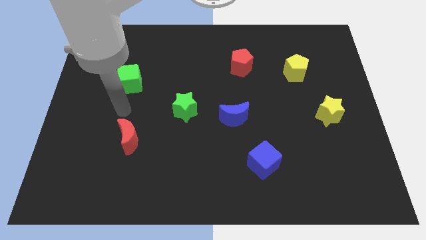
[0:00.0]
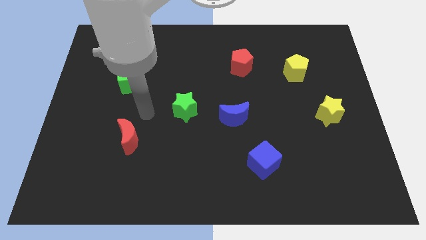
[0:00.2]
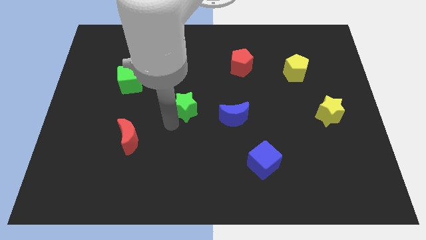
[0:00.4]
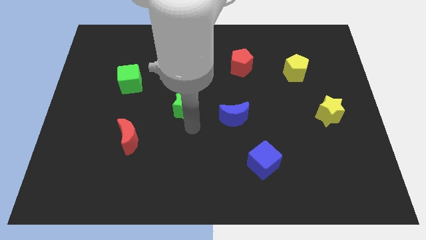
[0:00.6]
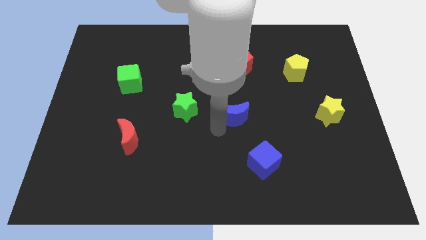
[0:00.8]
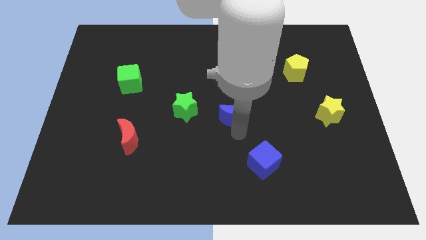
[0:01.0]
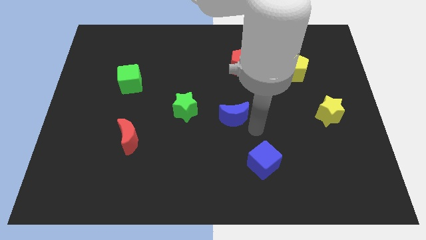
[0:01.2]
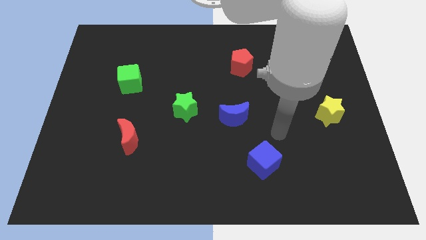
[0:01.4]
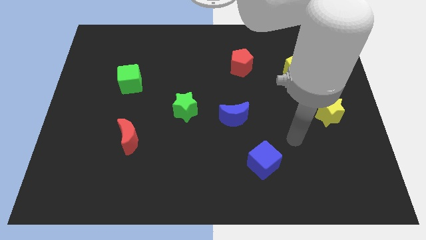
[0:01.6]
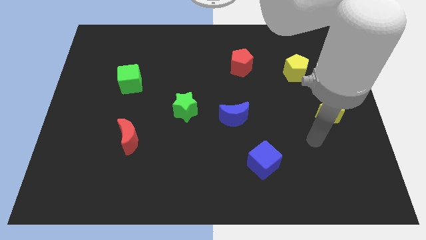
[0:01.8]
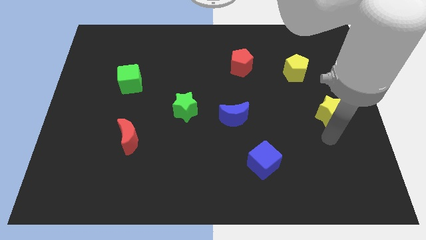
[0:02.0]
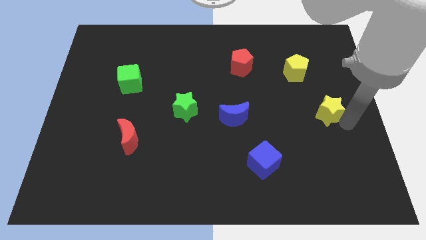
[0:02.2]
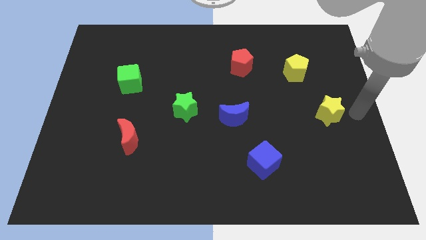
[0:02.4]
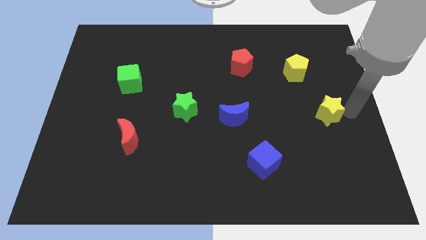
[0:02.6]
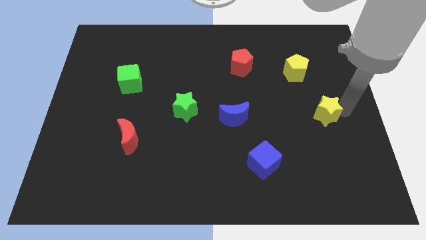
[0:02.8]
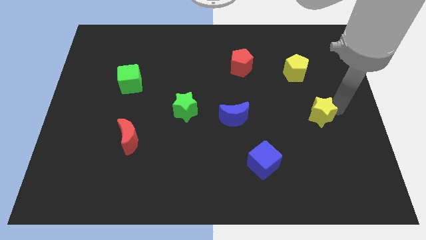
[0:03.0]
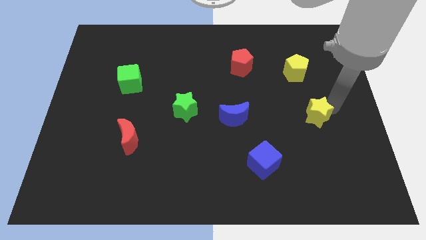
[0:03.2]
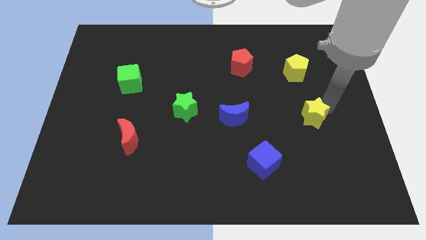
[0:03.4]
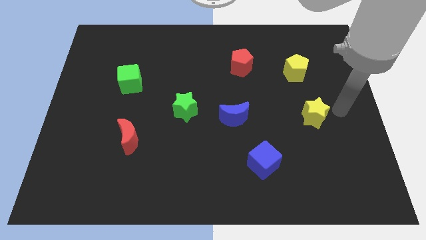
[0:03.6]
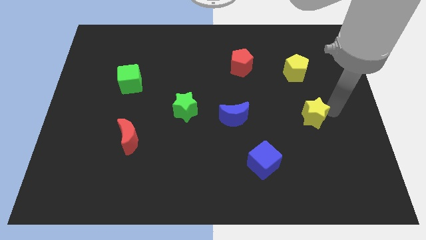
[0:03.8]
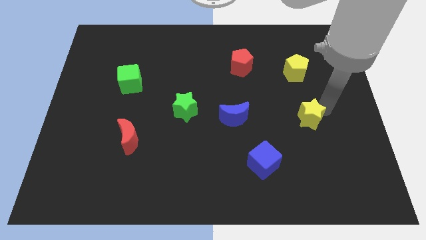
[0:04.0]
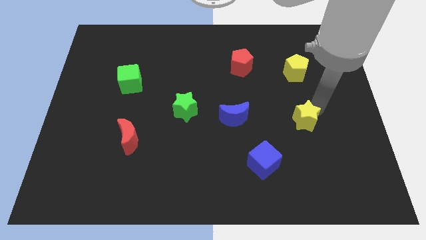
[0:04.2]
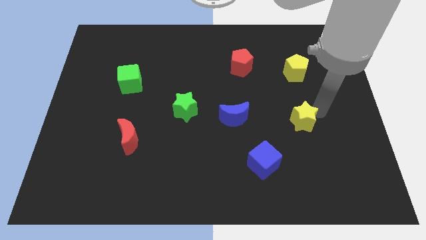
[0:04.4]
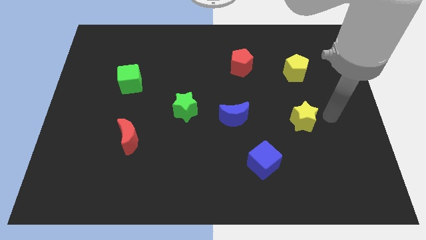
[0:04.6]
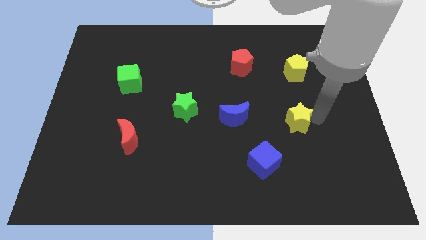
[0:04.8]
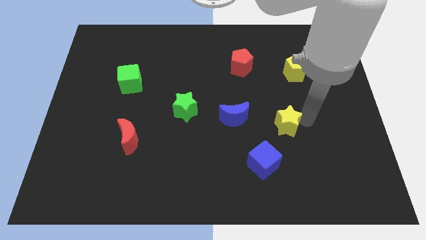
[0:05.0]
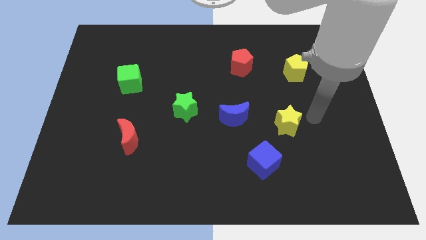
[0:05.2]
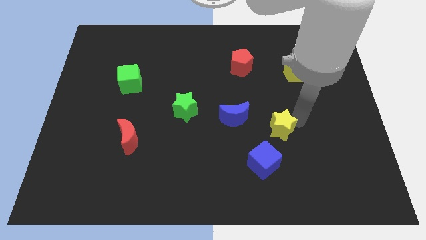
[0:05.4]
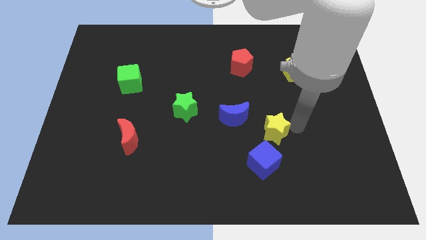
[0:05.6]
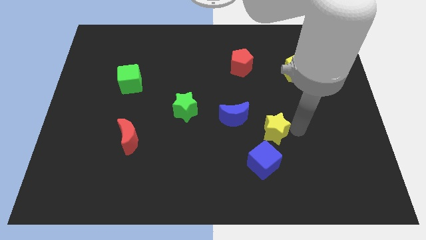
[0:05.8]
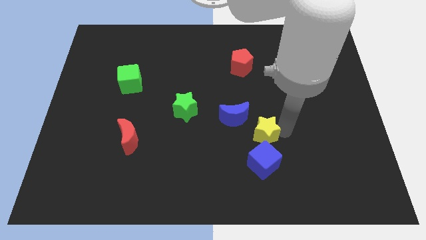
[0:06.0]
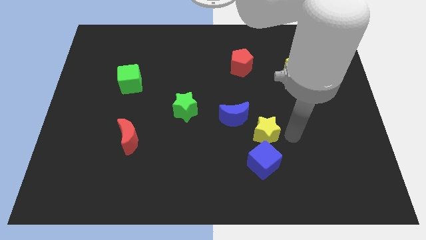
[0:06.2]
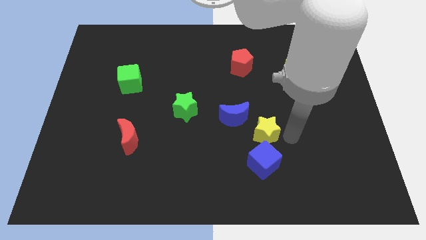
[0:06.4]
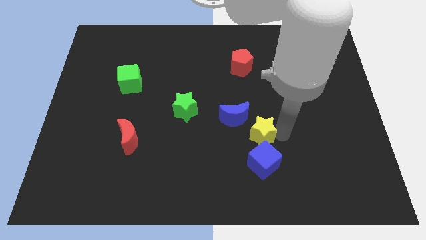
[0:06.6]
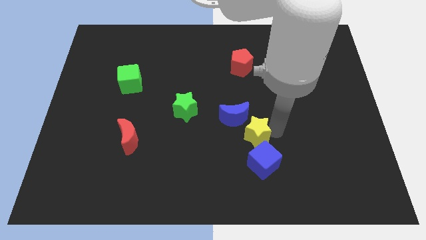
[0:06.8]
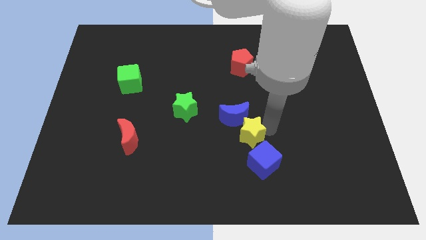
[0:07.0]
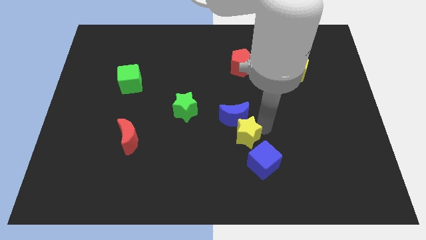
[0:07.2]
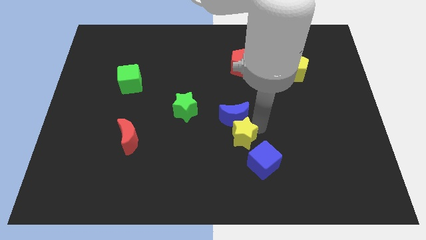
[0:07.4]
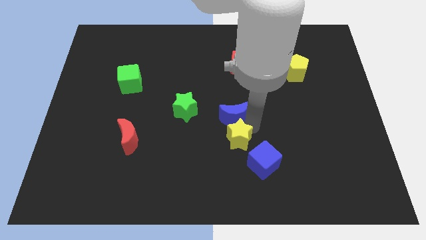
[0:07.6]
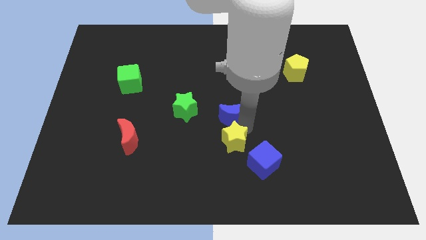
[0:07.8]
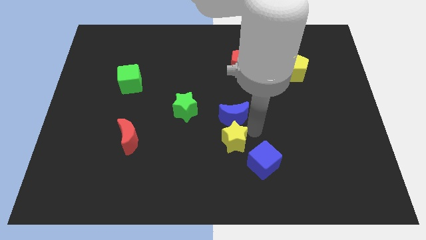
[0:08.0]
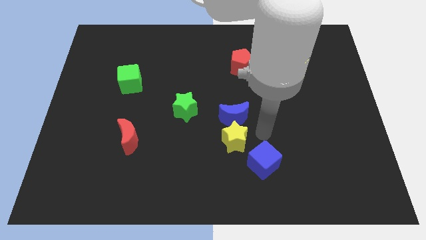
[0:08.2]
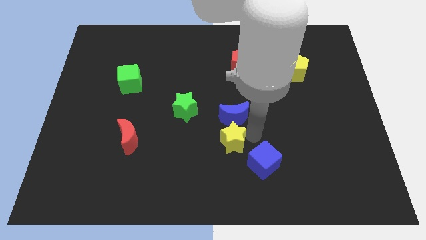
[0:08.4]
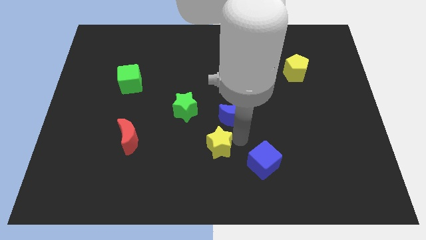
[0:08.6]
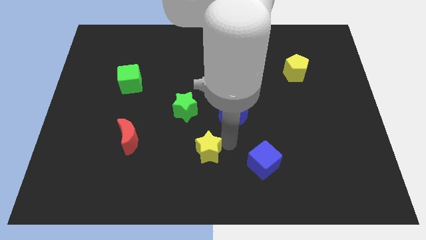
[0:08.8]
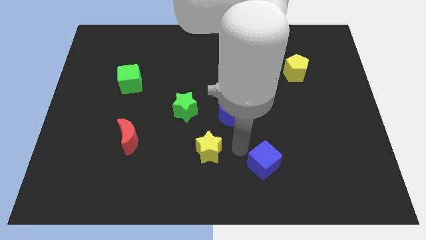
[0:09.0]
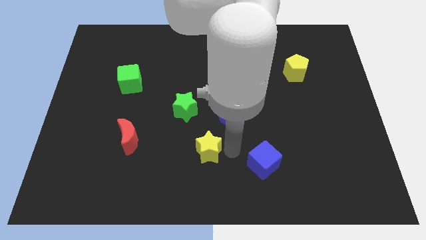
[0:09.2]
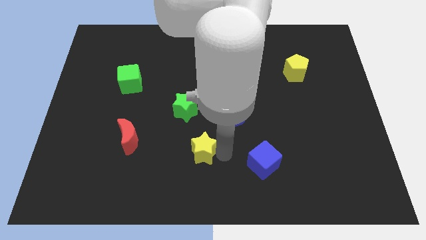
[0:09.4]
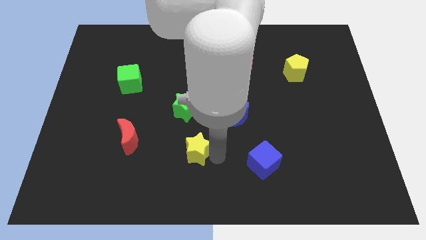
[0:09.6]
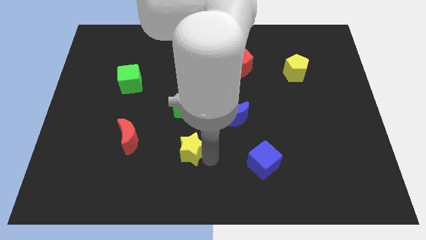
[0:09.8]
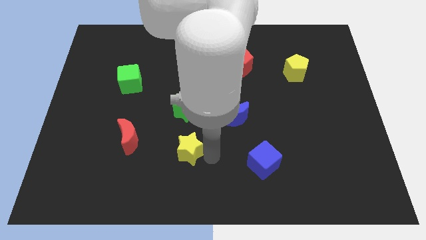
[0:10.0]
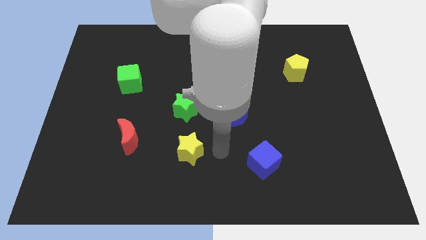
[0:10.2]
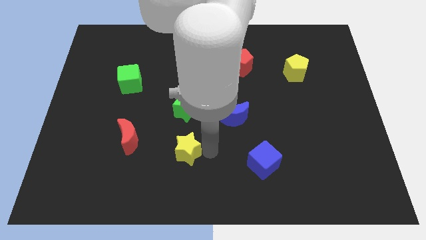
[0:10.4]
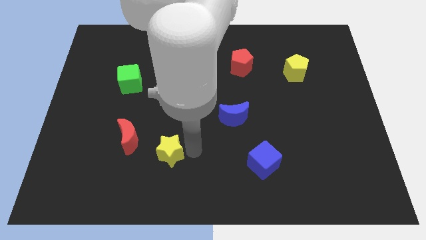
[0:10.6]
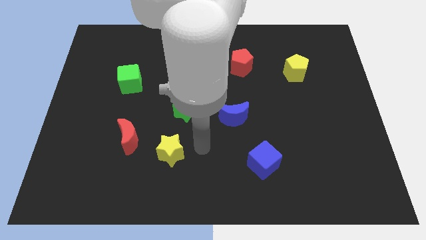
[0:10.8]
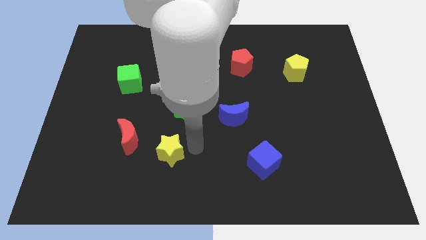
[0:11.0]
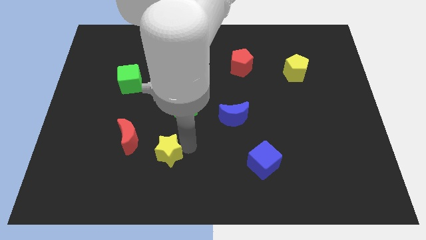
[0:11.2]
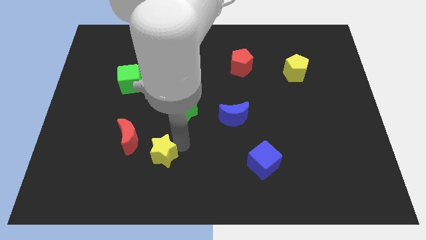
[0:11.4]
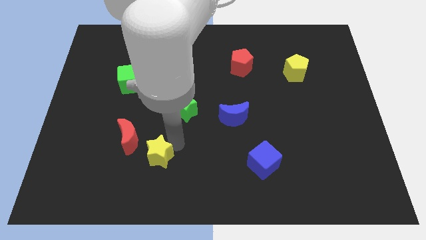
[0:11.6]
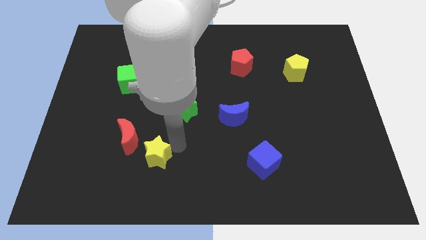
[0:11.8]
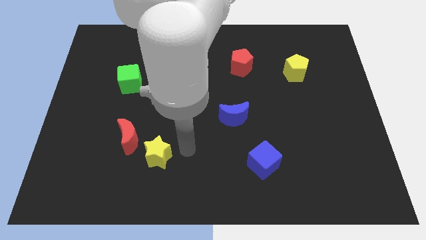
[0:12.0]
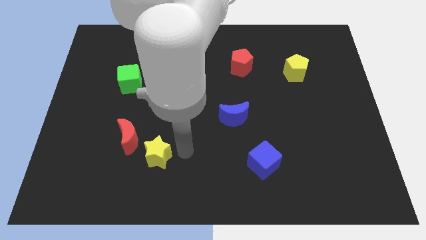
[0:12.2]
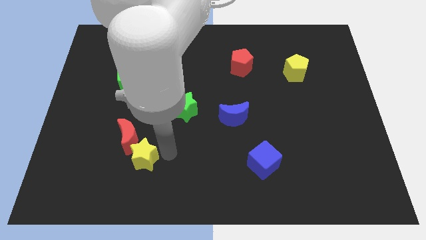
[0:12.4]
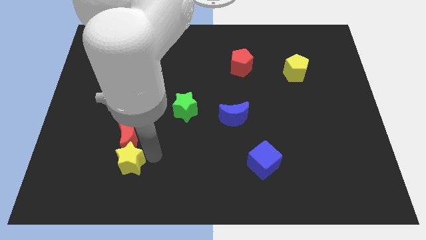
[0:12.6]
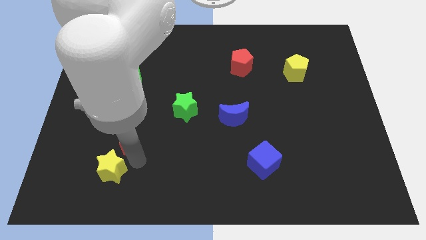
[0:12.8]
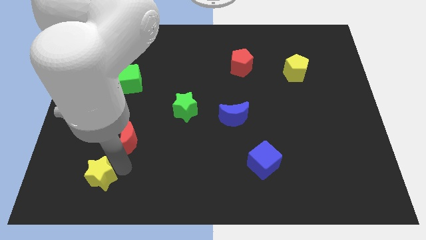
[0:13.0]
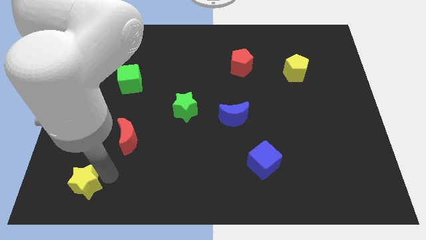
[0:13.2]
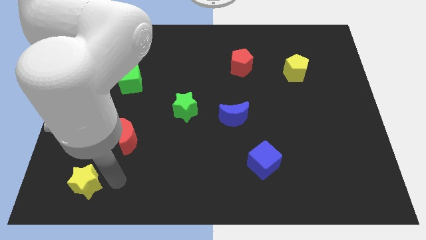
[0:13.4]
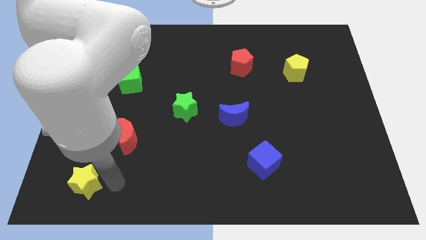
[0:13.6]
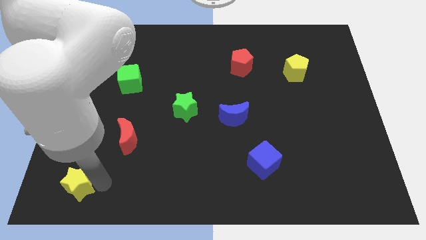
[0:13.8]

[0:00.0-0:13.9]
put the yellow star to the lower left corner
